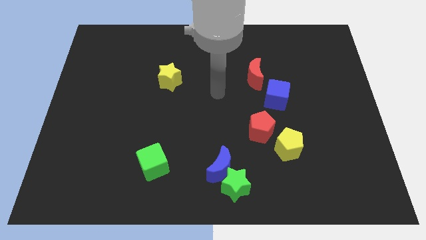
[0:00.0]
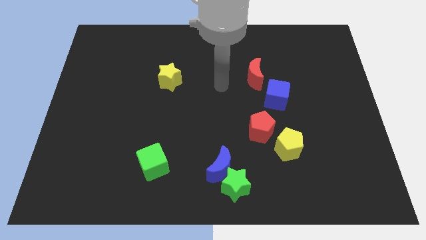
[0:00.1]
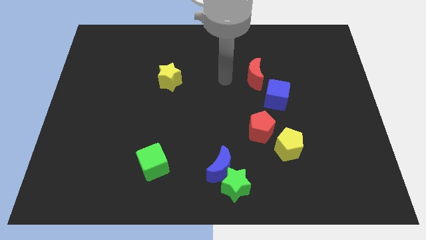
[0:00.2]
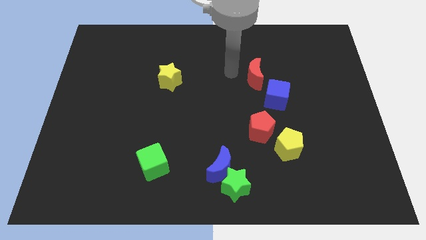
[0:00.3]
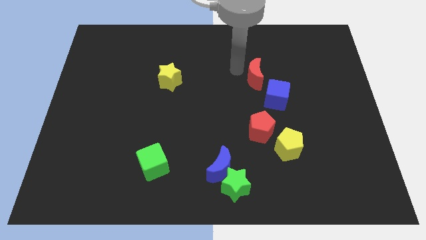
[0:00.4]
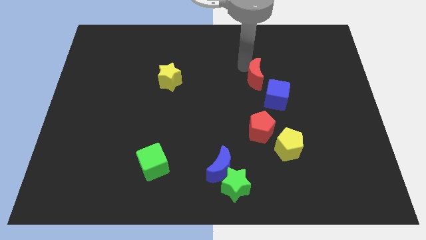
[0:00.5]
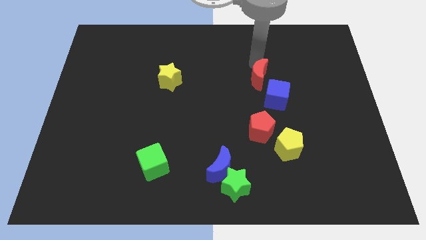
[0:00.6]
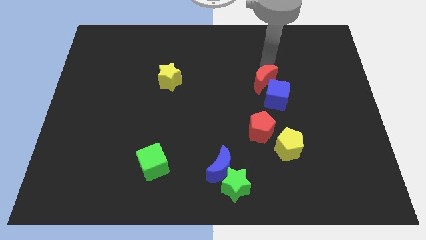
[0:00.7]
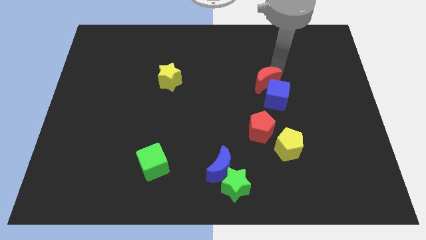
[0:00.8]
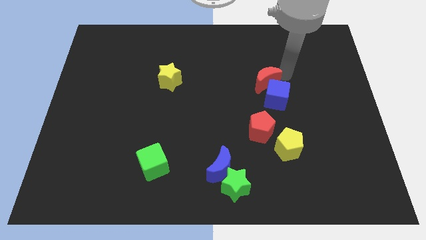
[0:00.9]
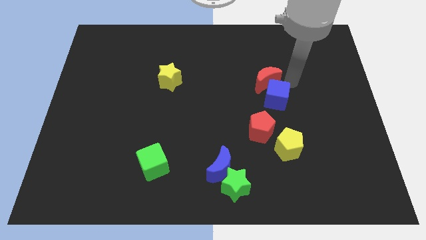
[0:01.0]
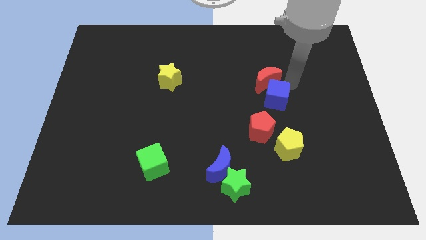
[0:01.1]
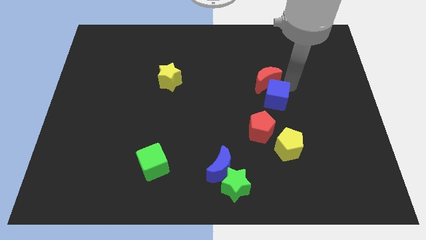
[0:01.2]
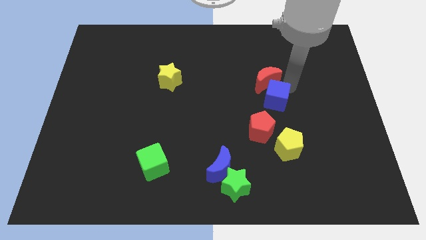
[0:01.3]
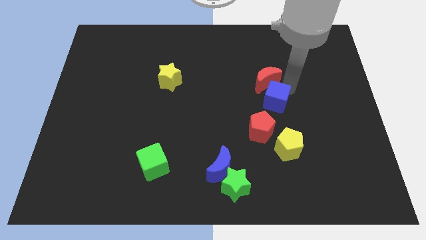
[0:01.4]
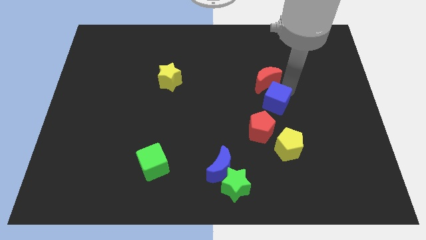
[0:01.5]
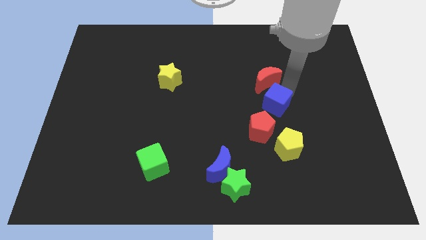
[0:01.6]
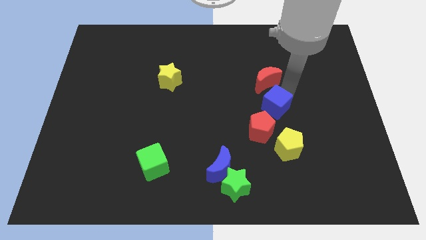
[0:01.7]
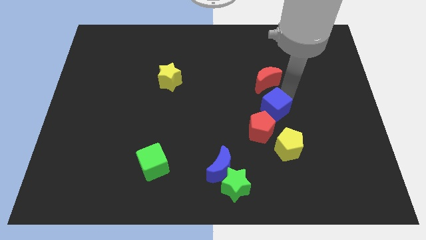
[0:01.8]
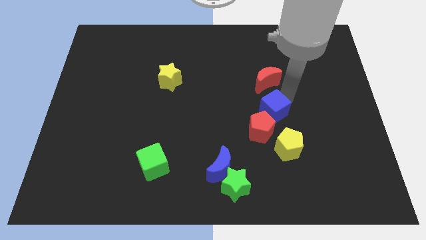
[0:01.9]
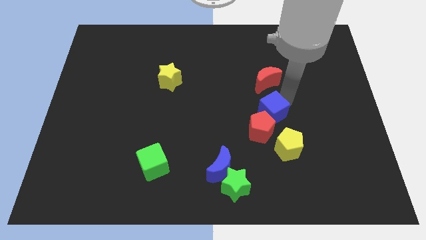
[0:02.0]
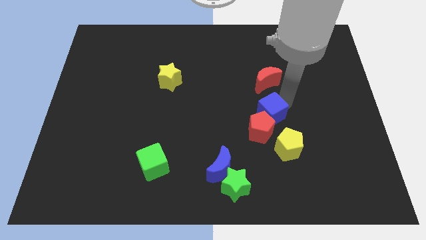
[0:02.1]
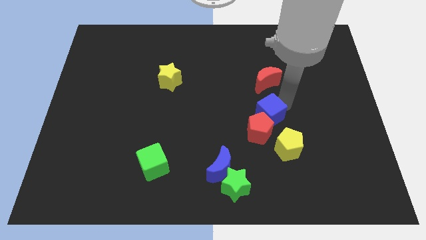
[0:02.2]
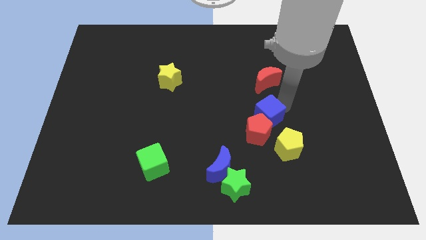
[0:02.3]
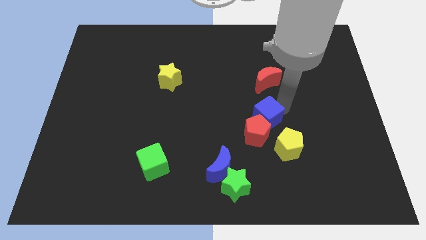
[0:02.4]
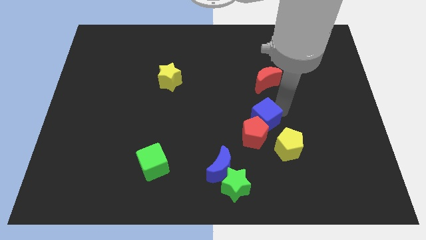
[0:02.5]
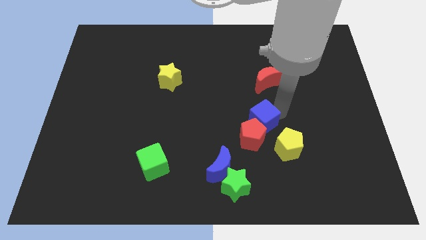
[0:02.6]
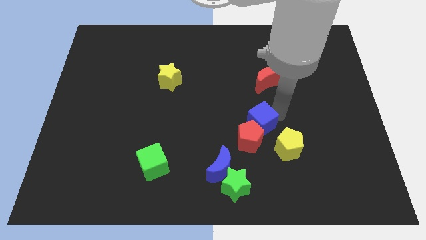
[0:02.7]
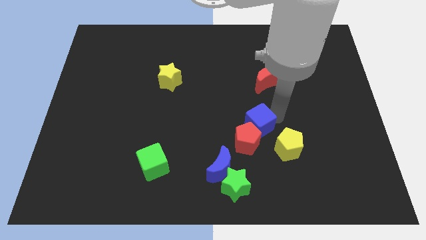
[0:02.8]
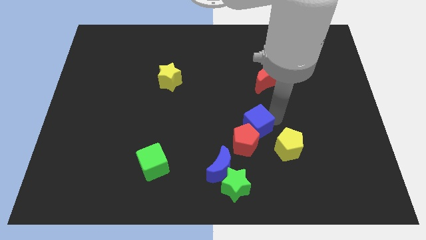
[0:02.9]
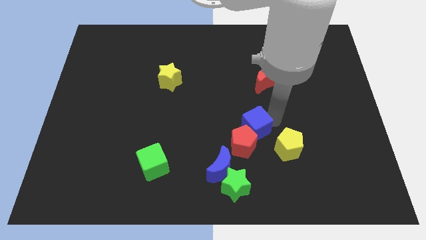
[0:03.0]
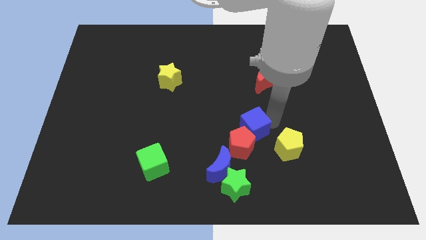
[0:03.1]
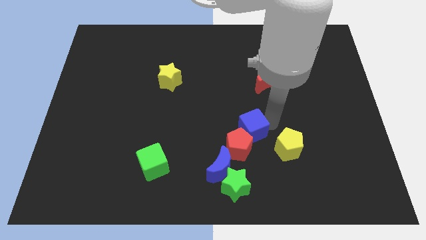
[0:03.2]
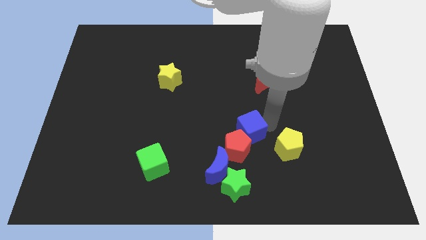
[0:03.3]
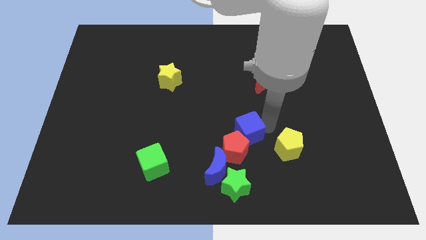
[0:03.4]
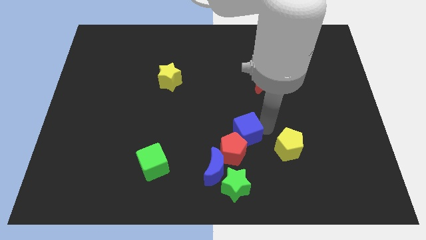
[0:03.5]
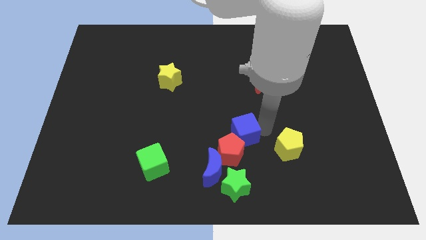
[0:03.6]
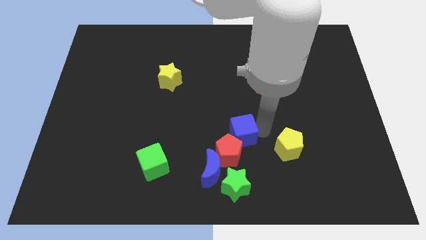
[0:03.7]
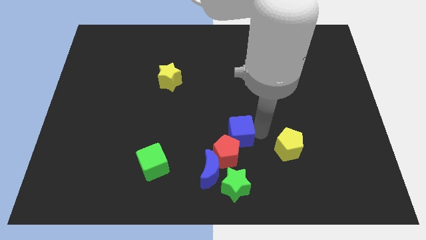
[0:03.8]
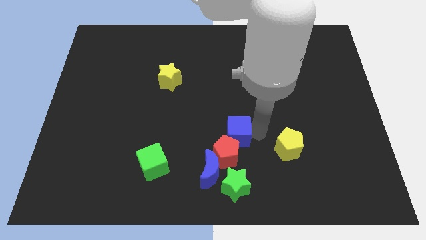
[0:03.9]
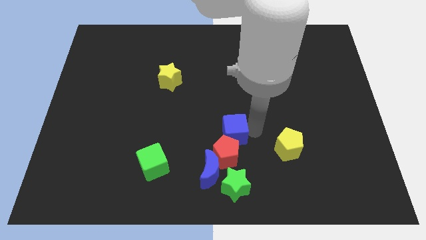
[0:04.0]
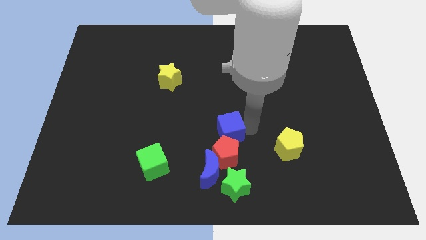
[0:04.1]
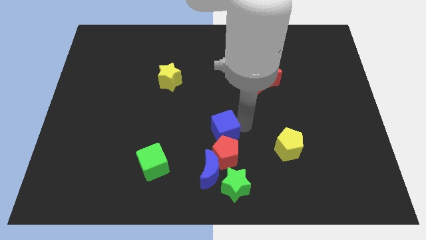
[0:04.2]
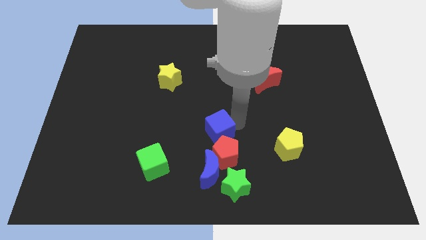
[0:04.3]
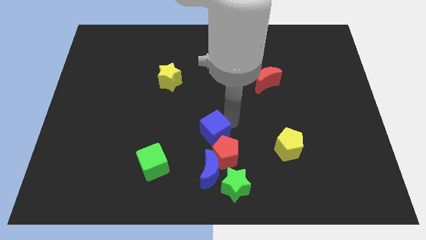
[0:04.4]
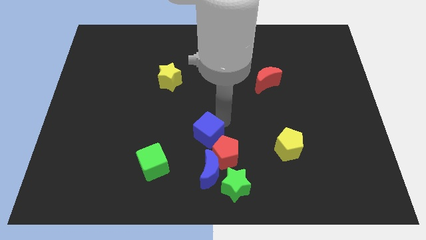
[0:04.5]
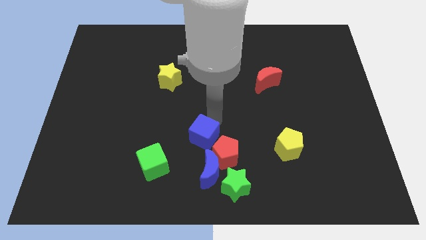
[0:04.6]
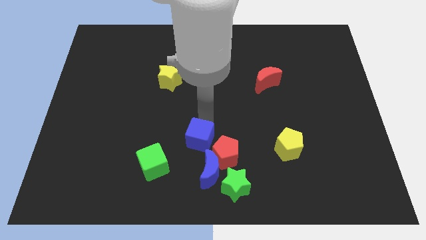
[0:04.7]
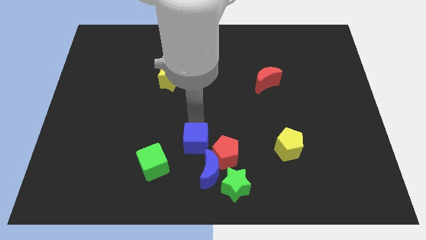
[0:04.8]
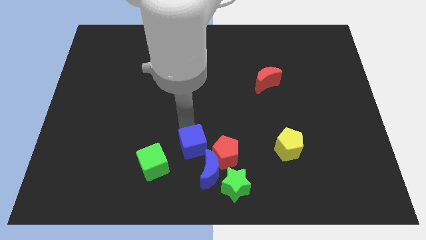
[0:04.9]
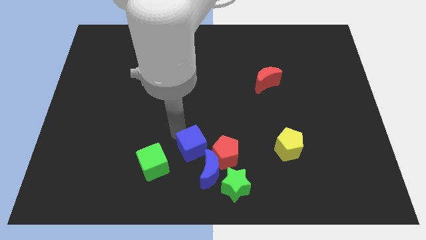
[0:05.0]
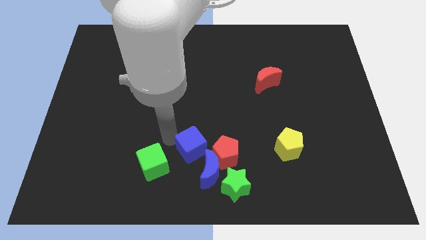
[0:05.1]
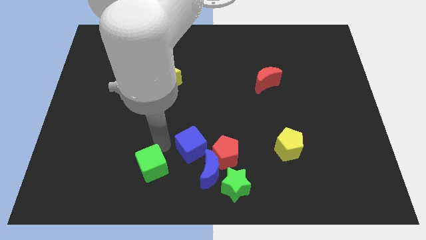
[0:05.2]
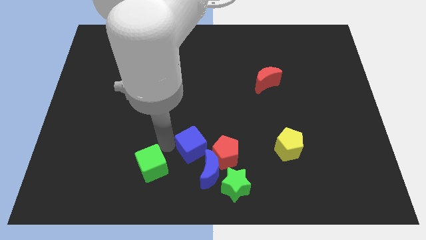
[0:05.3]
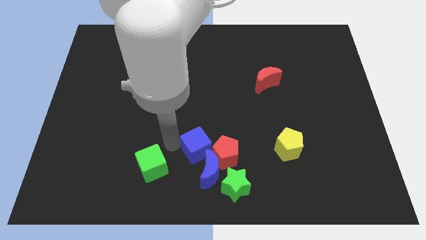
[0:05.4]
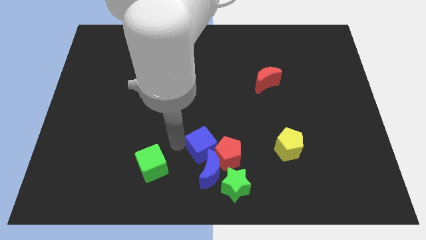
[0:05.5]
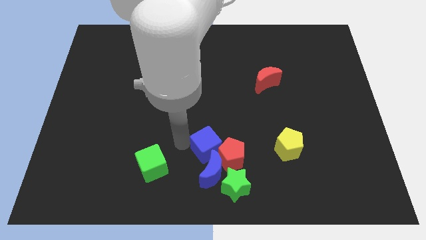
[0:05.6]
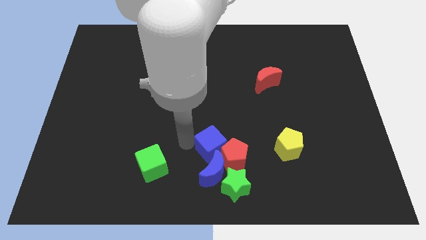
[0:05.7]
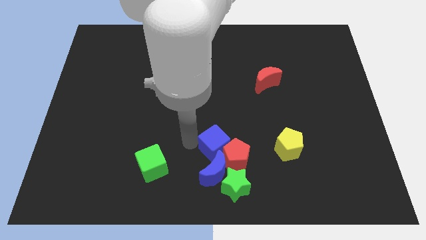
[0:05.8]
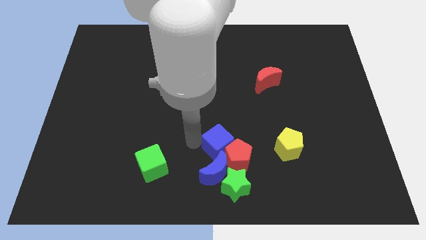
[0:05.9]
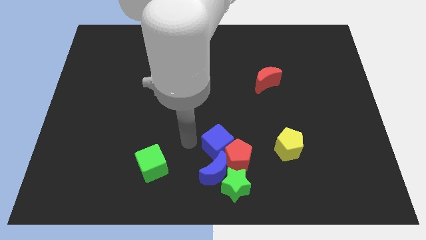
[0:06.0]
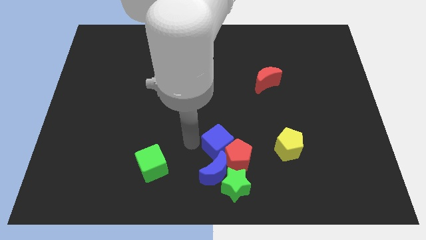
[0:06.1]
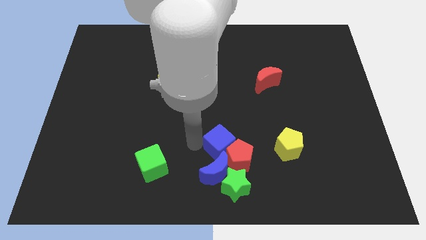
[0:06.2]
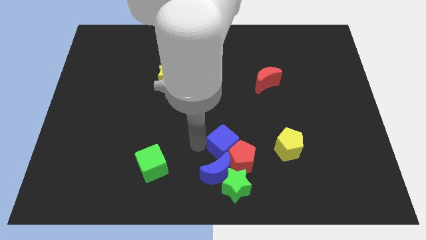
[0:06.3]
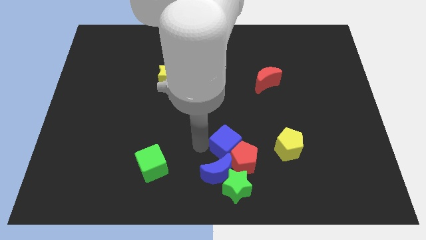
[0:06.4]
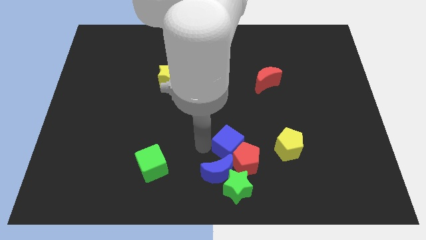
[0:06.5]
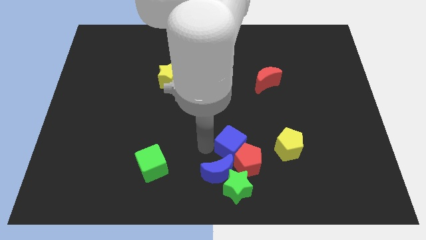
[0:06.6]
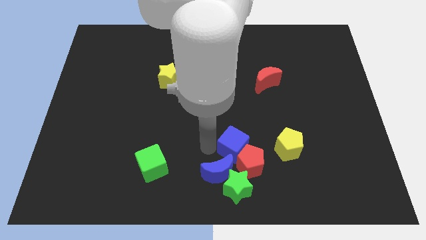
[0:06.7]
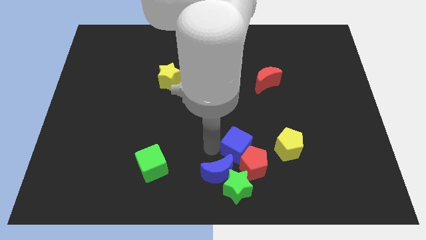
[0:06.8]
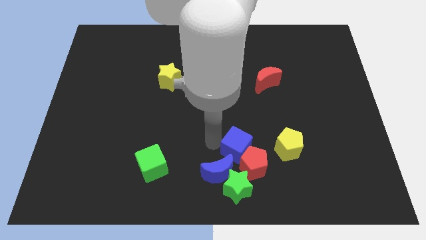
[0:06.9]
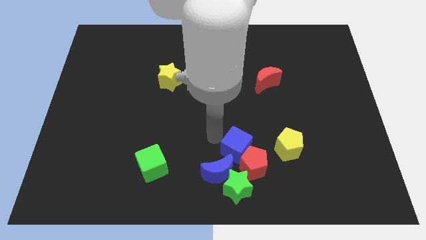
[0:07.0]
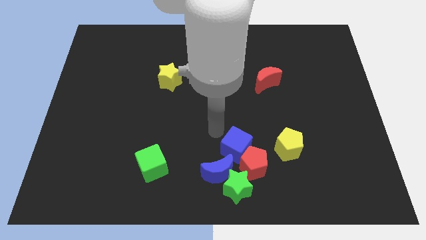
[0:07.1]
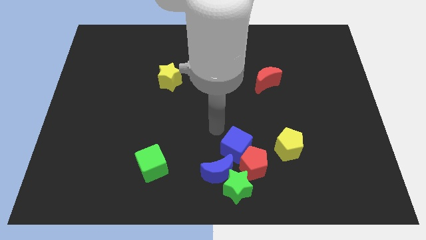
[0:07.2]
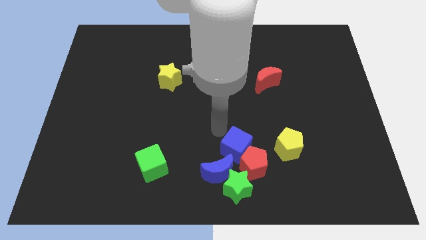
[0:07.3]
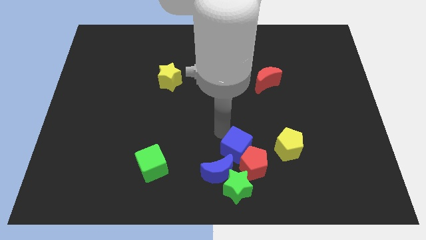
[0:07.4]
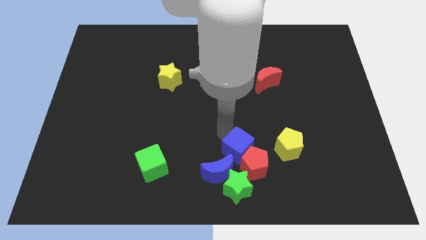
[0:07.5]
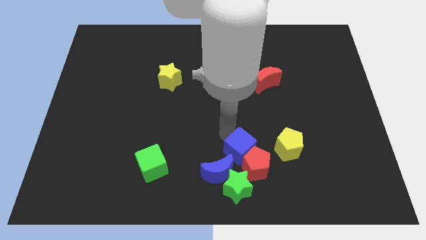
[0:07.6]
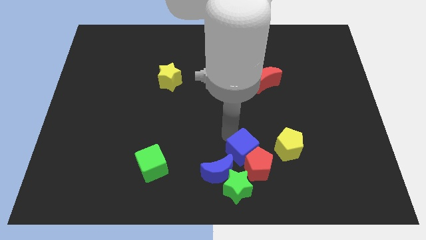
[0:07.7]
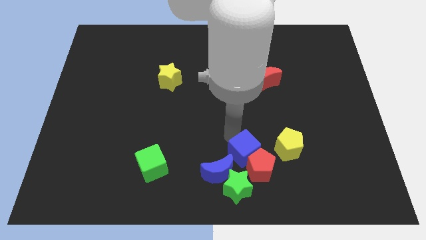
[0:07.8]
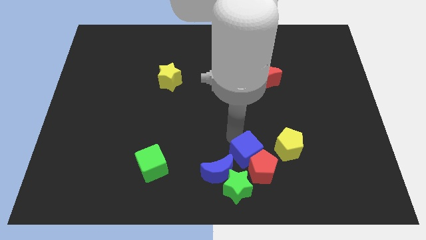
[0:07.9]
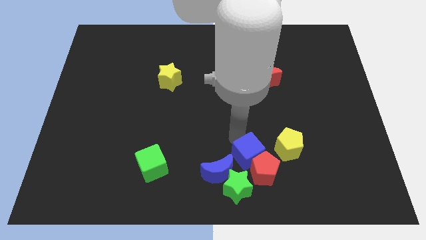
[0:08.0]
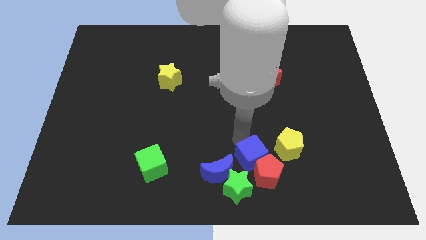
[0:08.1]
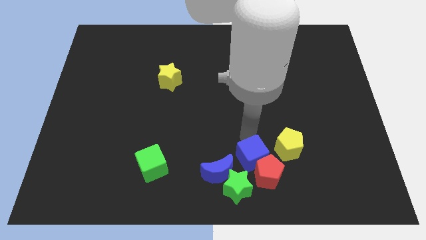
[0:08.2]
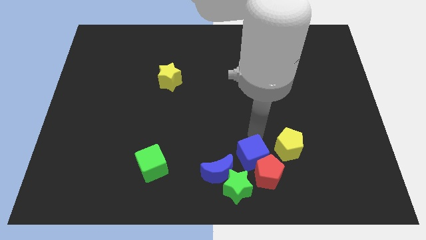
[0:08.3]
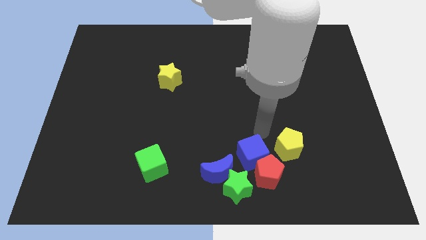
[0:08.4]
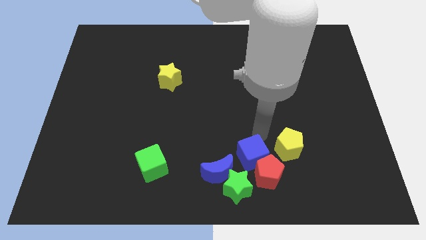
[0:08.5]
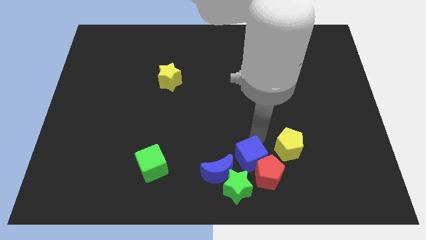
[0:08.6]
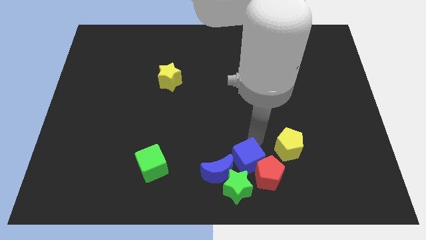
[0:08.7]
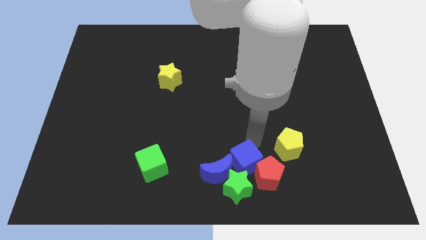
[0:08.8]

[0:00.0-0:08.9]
slide the blue cube close to the green star
